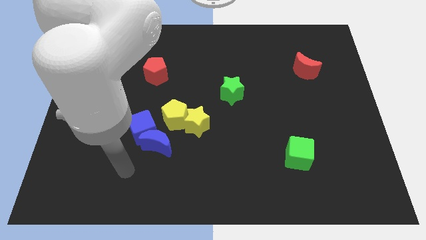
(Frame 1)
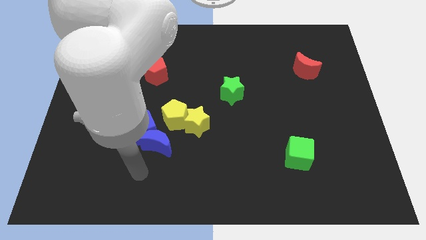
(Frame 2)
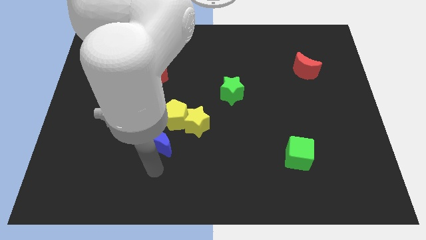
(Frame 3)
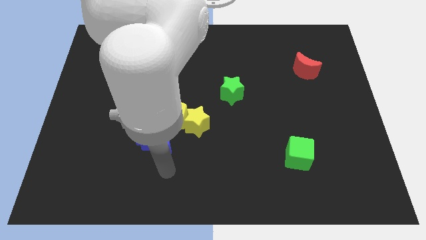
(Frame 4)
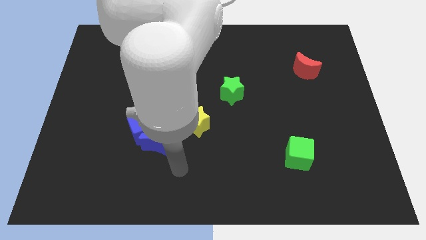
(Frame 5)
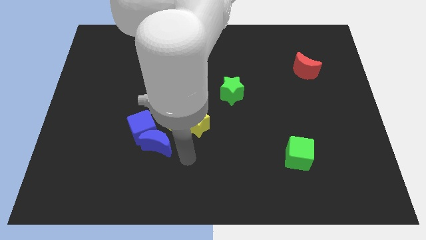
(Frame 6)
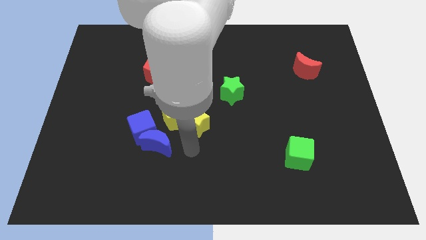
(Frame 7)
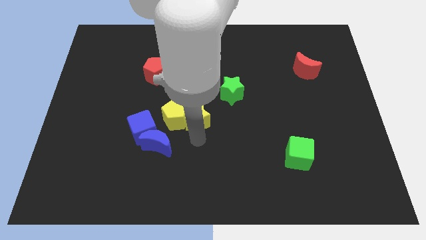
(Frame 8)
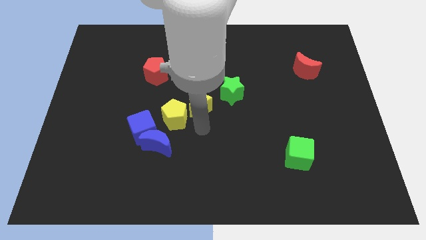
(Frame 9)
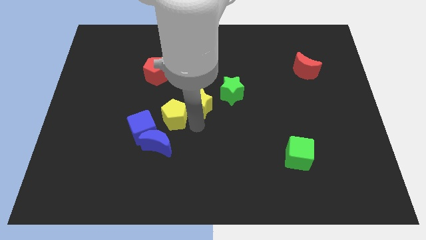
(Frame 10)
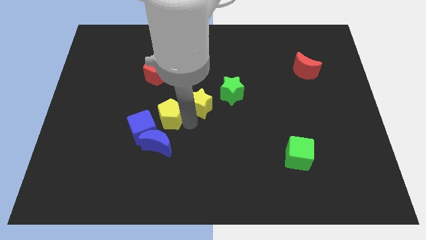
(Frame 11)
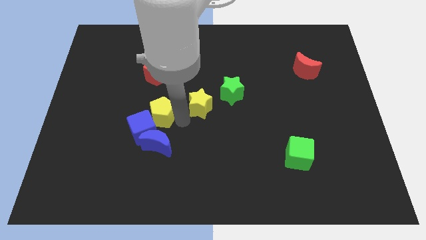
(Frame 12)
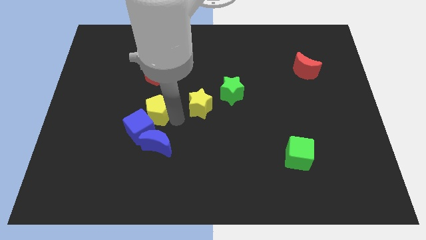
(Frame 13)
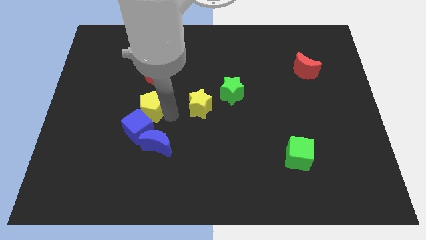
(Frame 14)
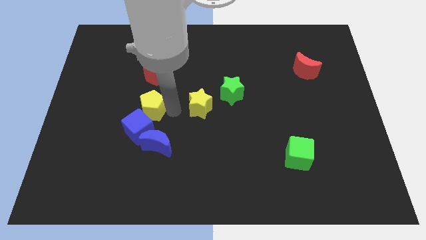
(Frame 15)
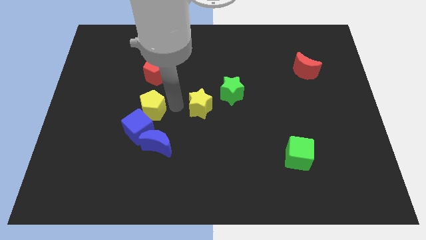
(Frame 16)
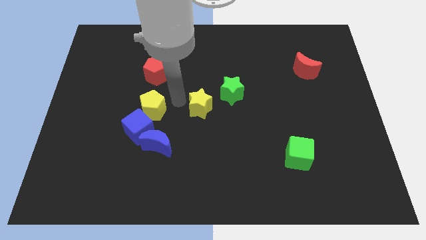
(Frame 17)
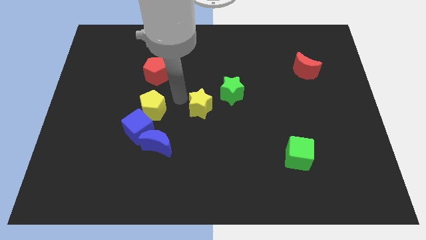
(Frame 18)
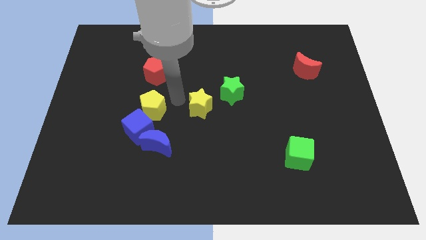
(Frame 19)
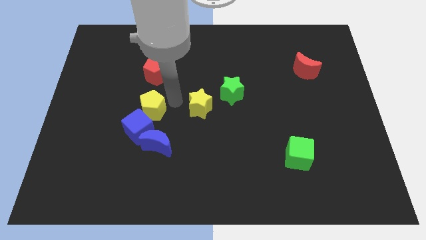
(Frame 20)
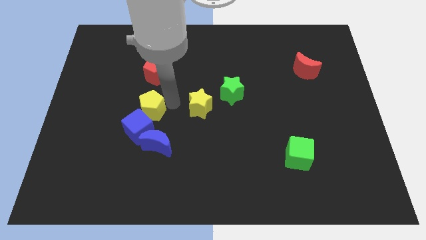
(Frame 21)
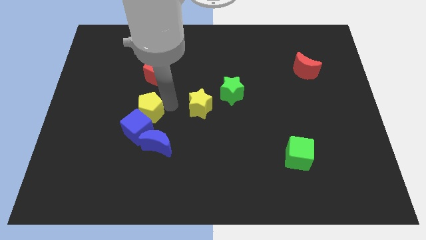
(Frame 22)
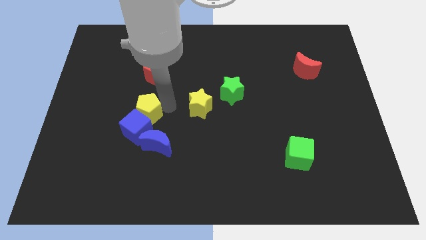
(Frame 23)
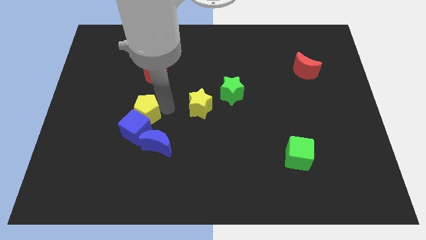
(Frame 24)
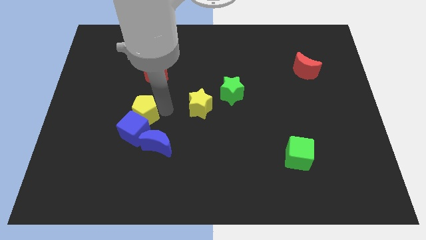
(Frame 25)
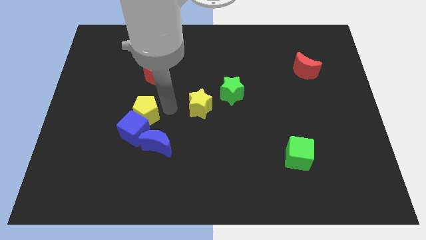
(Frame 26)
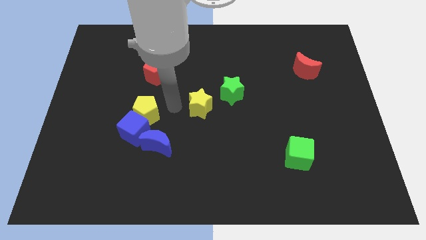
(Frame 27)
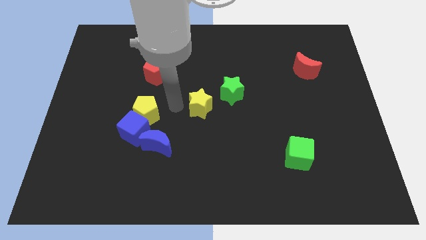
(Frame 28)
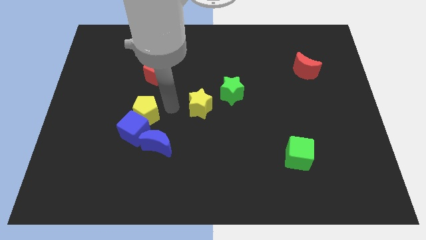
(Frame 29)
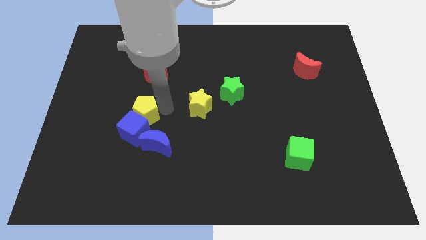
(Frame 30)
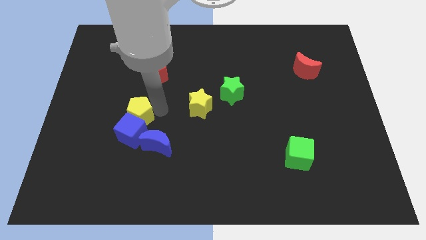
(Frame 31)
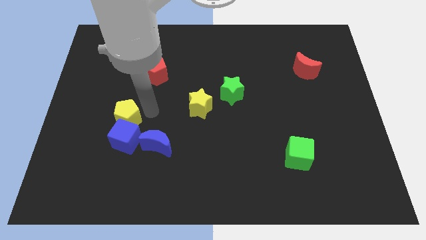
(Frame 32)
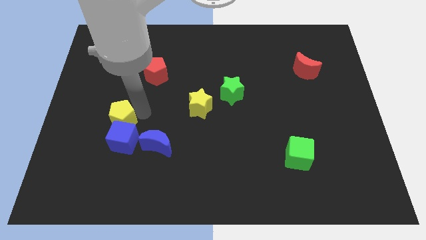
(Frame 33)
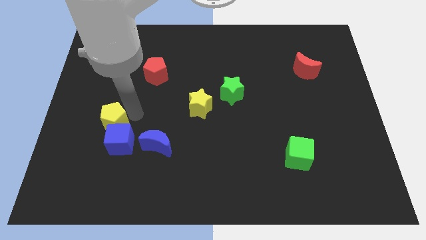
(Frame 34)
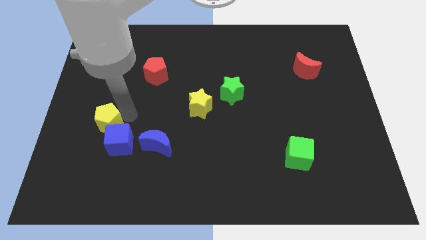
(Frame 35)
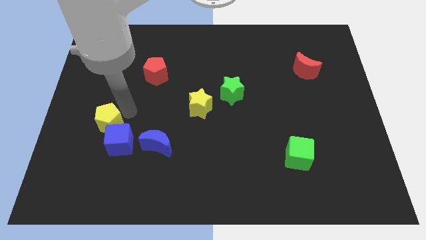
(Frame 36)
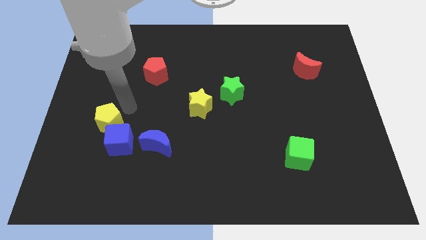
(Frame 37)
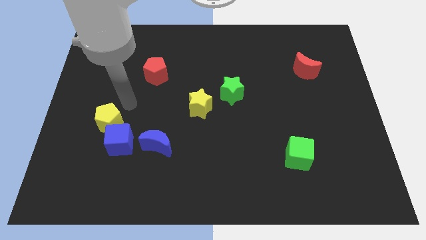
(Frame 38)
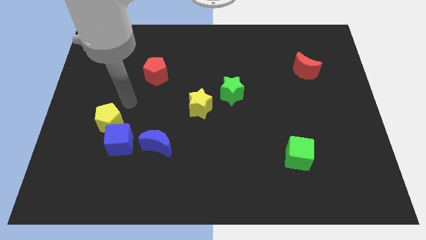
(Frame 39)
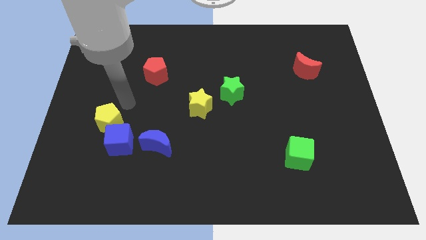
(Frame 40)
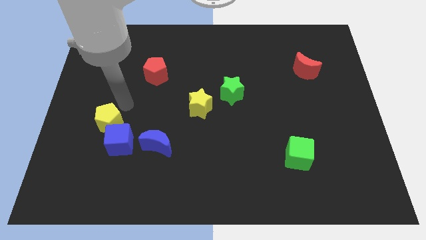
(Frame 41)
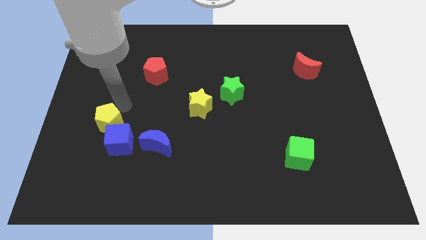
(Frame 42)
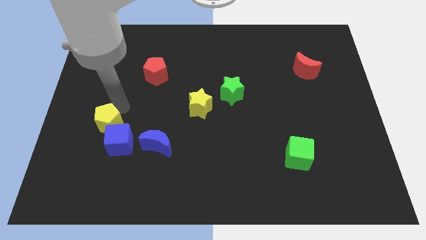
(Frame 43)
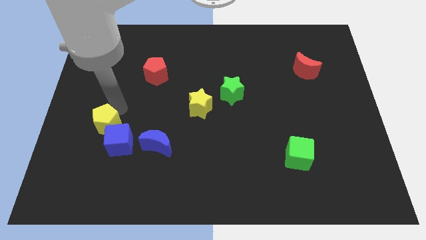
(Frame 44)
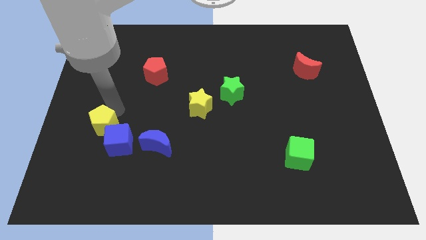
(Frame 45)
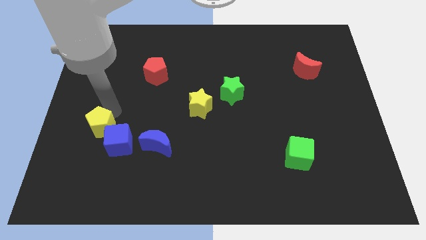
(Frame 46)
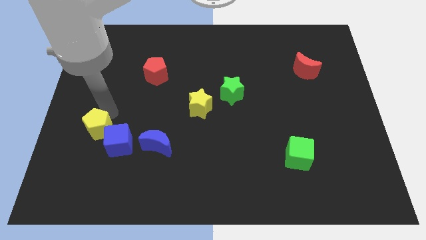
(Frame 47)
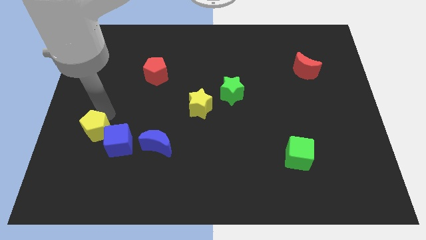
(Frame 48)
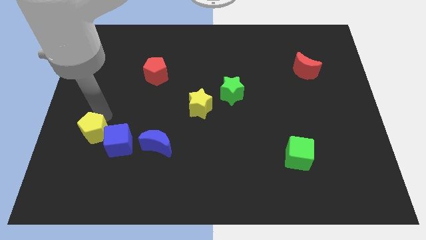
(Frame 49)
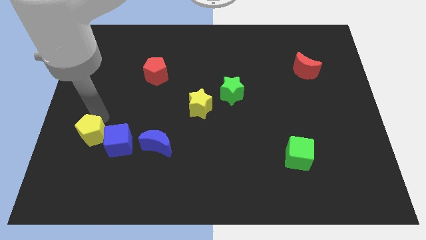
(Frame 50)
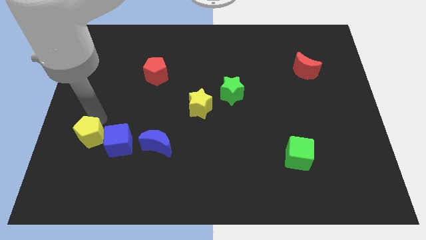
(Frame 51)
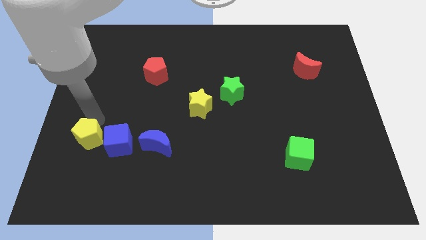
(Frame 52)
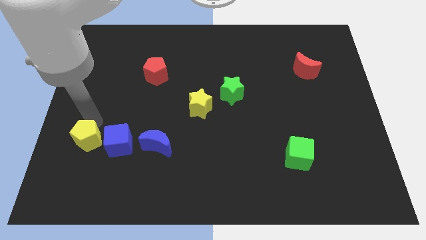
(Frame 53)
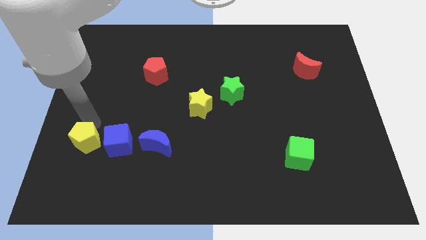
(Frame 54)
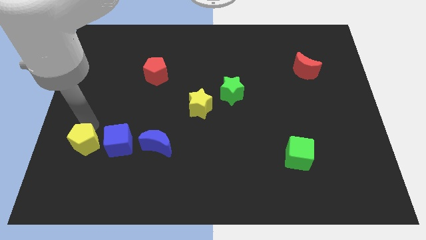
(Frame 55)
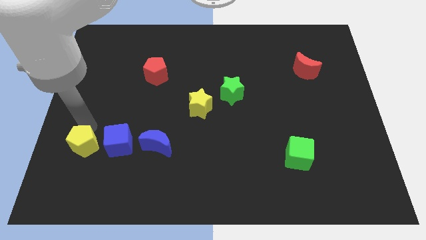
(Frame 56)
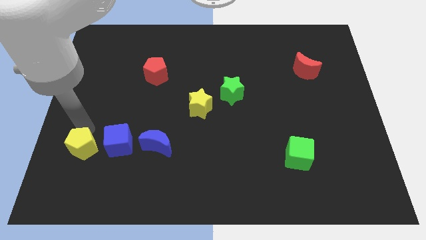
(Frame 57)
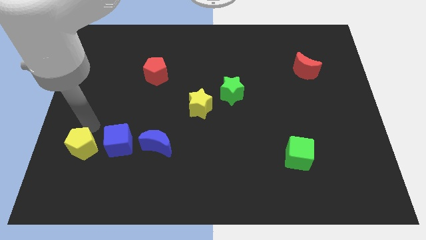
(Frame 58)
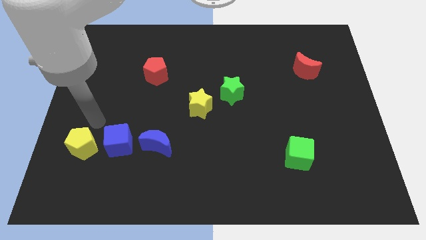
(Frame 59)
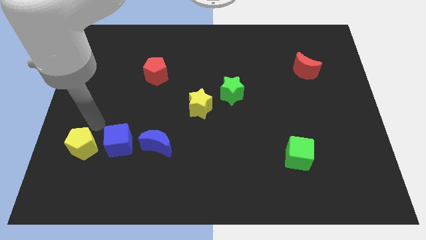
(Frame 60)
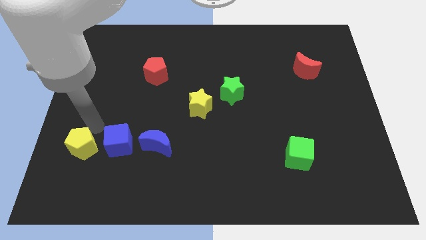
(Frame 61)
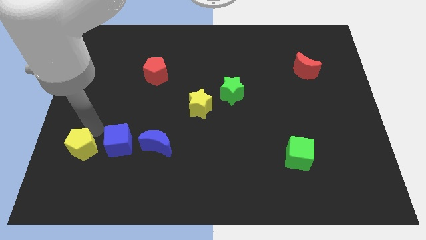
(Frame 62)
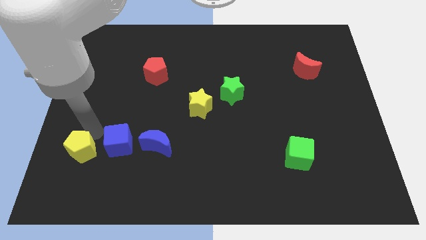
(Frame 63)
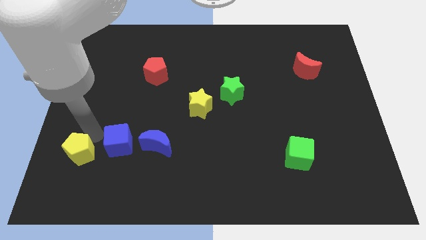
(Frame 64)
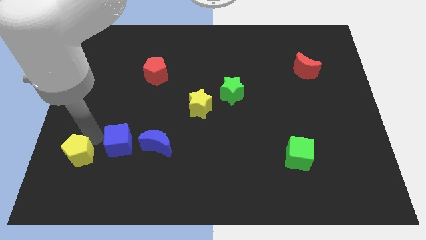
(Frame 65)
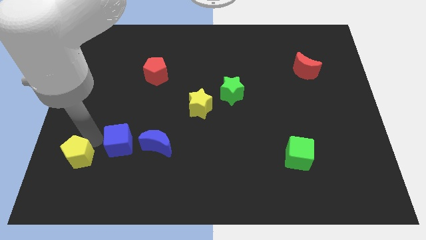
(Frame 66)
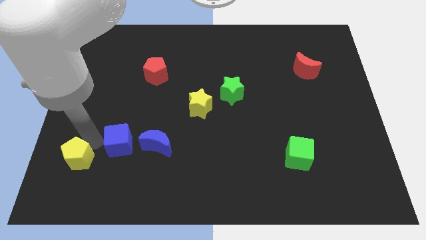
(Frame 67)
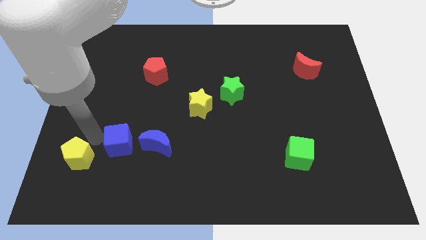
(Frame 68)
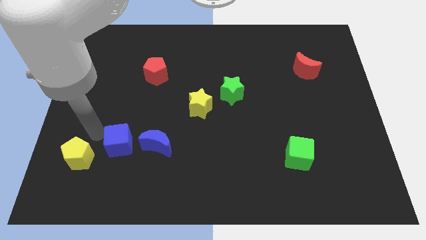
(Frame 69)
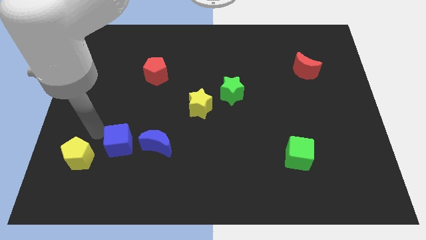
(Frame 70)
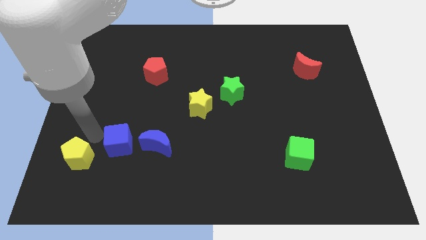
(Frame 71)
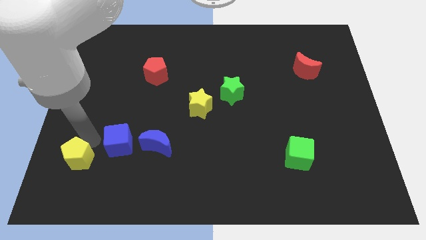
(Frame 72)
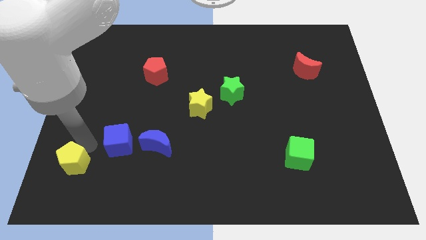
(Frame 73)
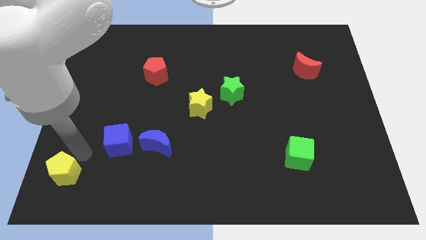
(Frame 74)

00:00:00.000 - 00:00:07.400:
put the yellow pentagon to the lower left corner
